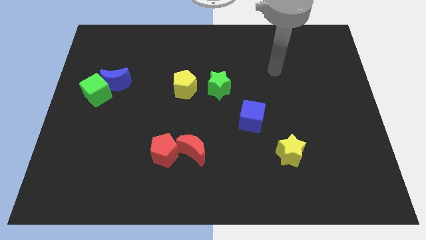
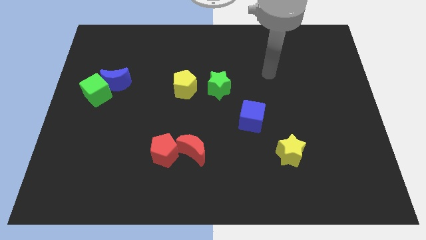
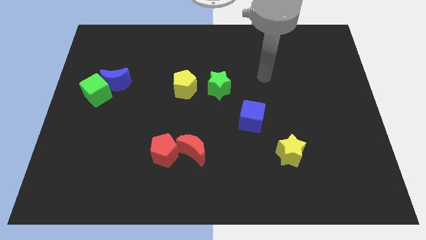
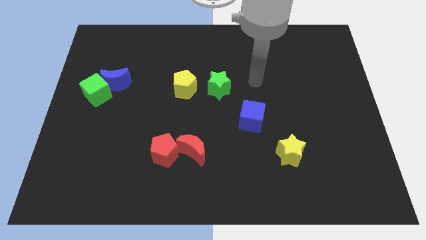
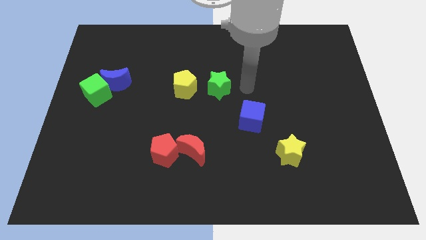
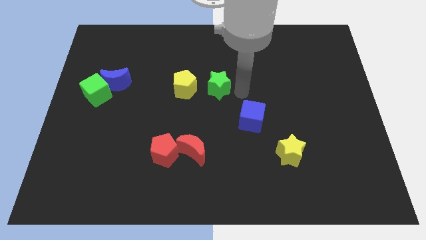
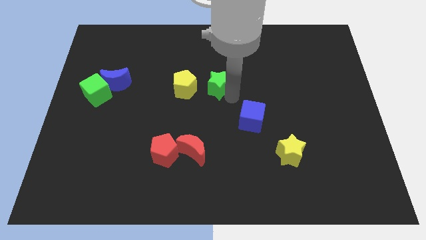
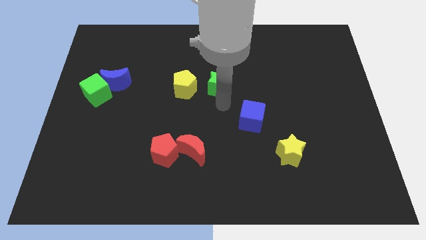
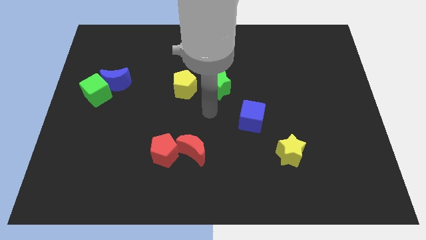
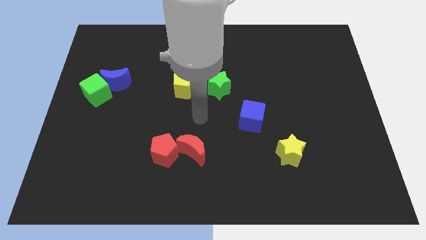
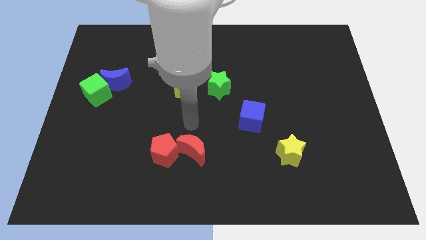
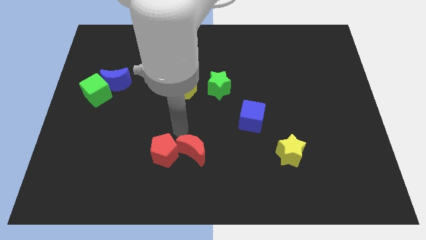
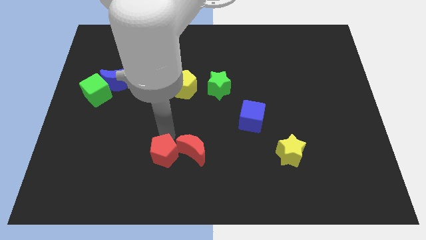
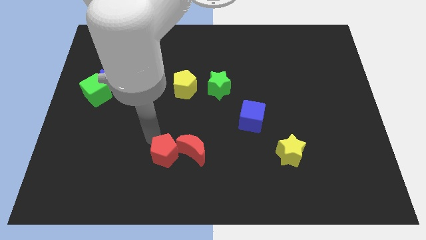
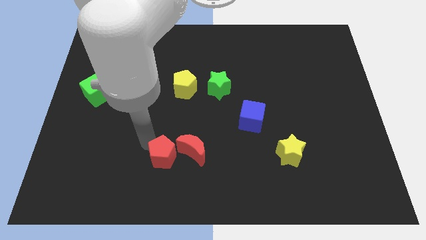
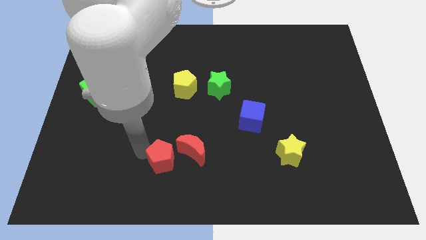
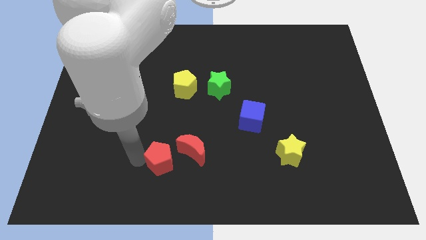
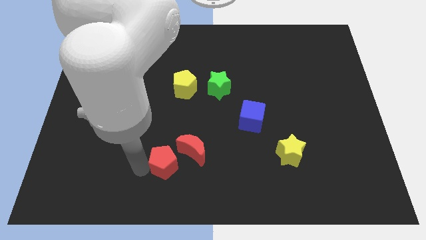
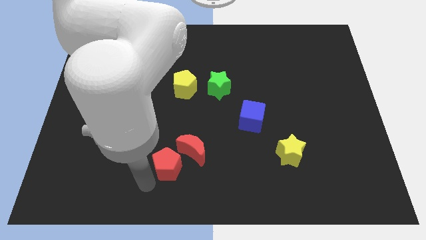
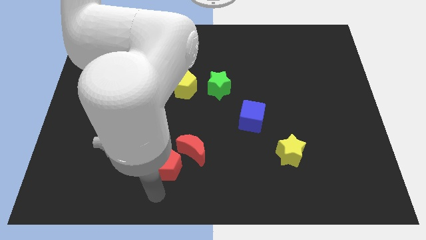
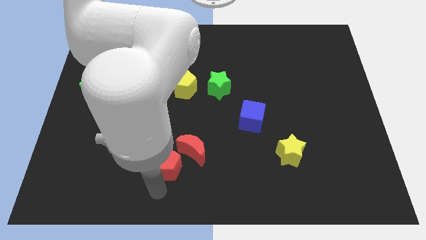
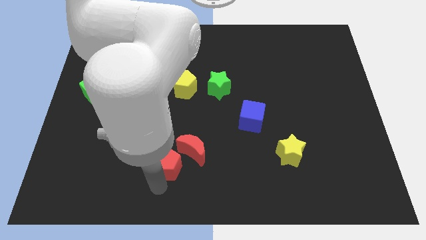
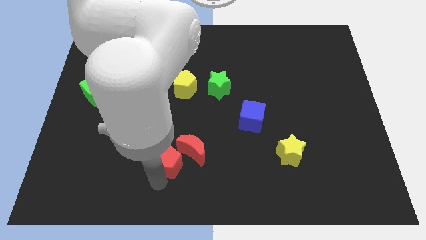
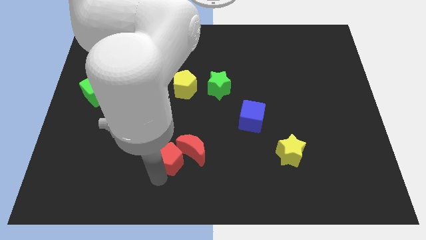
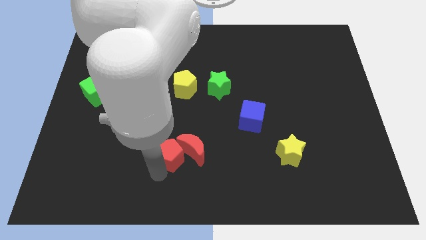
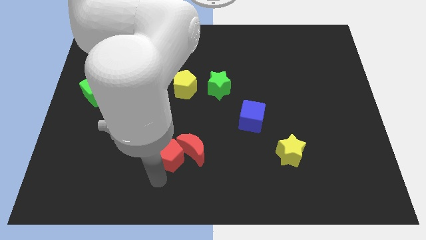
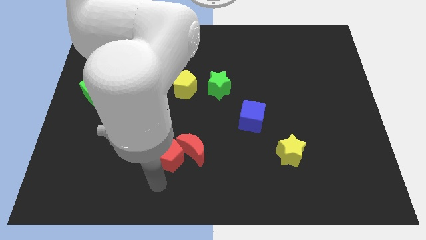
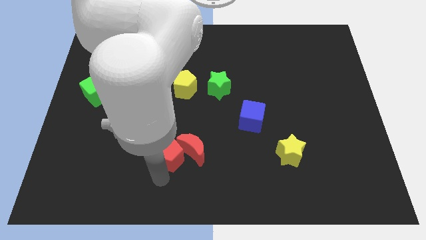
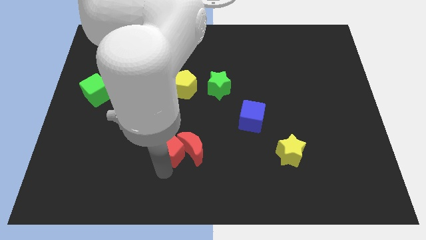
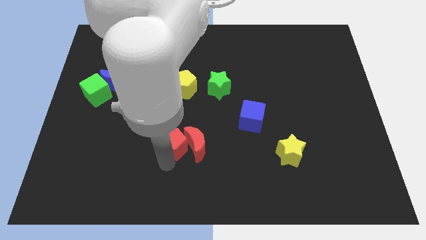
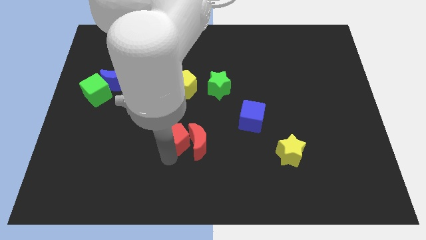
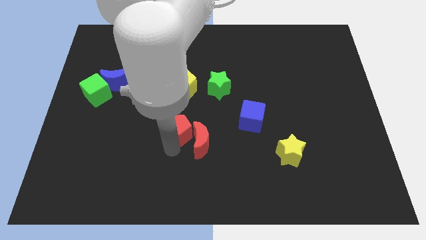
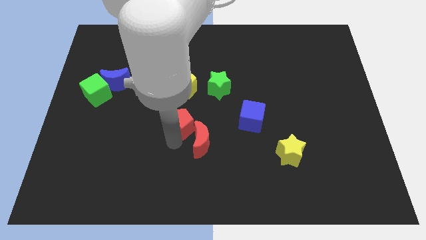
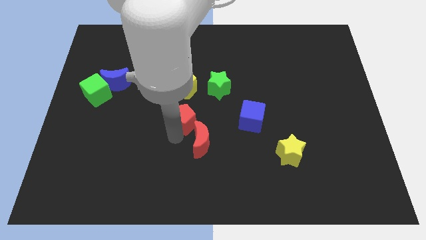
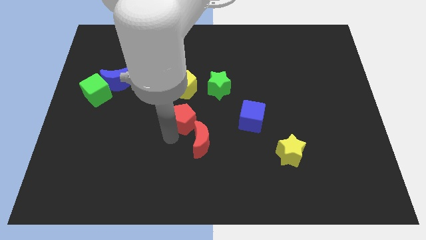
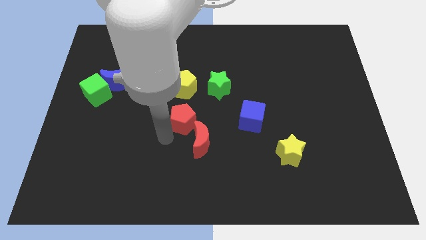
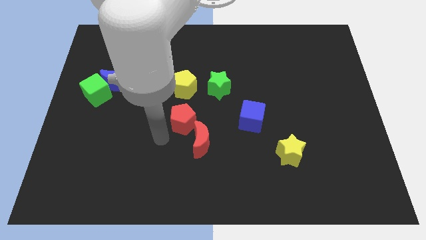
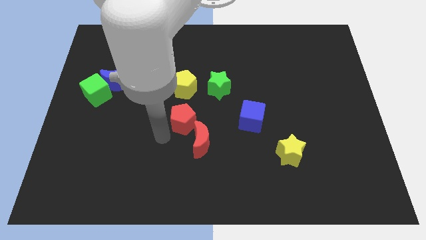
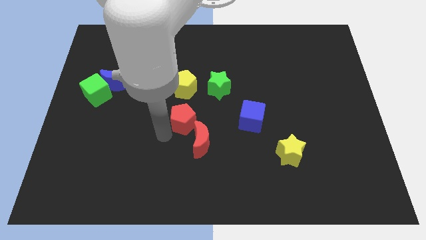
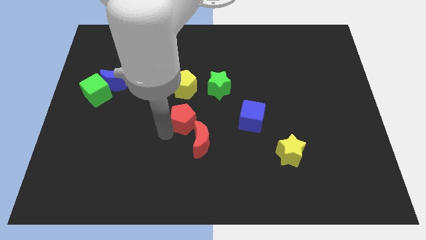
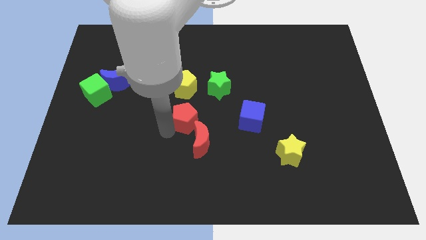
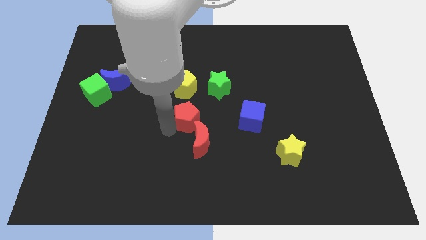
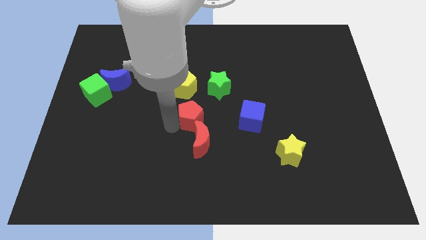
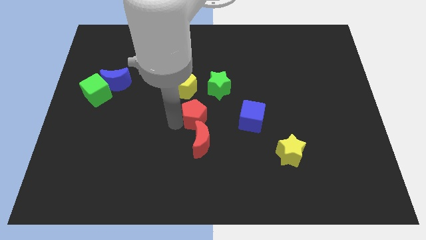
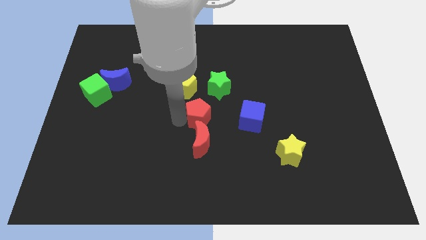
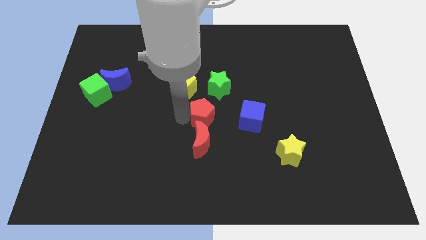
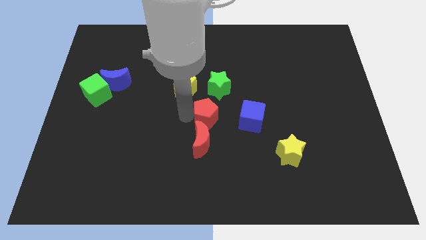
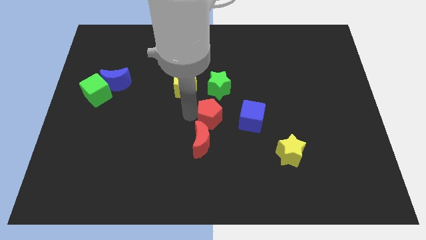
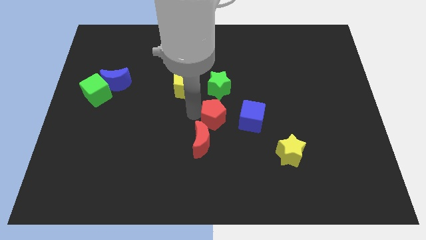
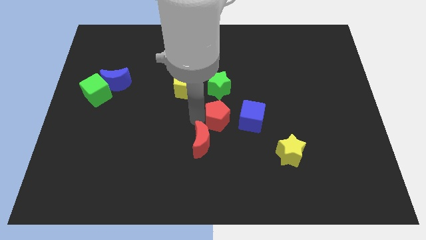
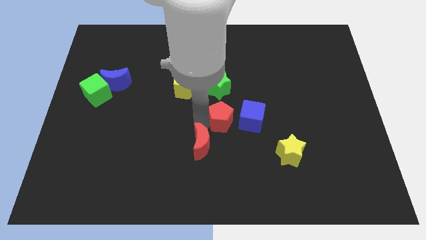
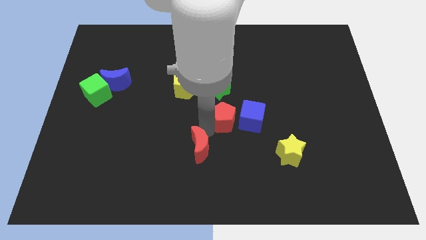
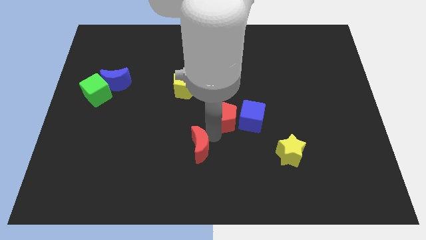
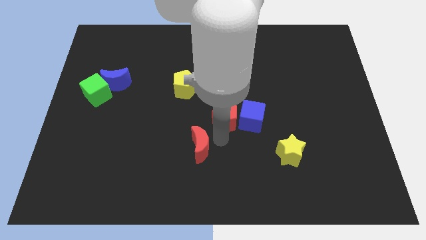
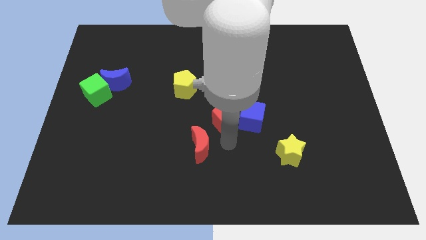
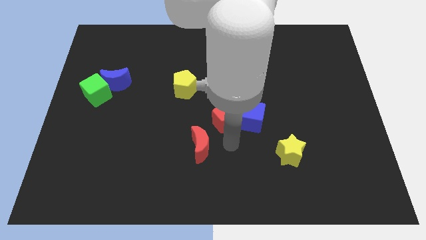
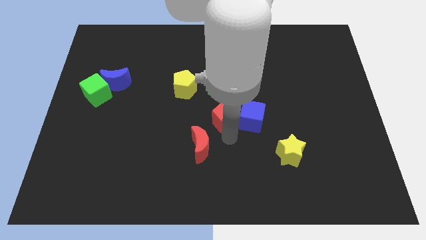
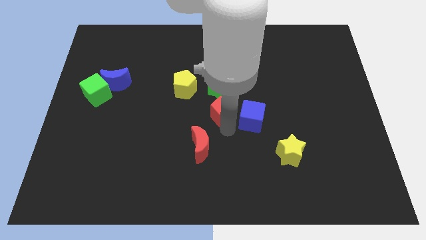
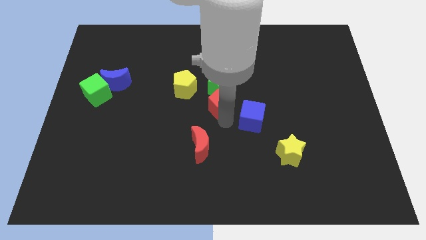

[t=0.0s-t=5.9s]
slide the red pentagon towards the green star
